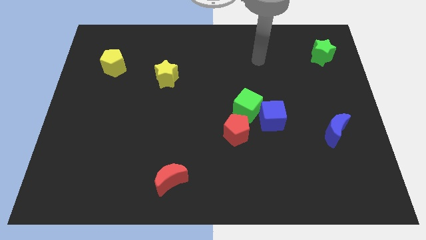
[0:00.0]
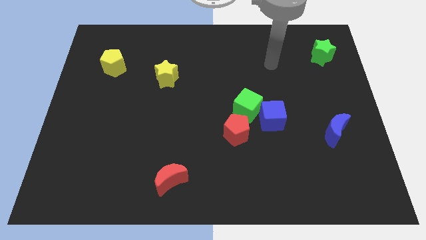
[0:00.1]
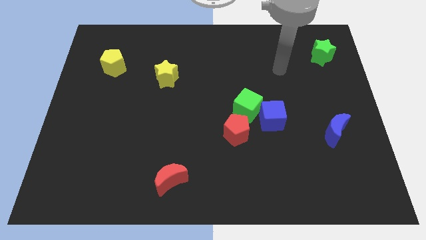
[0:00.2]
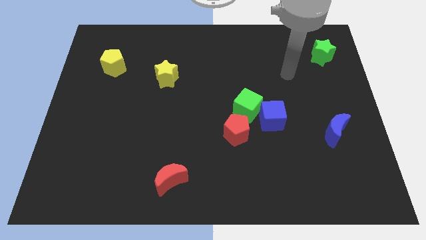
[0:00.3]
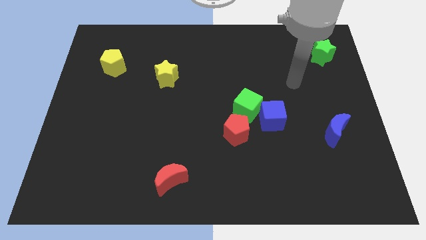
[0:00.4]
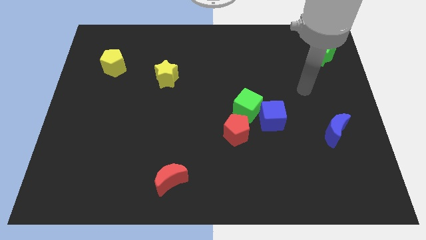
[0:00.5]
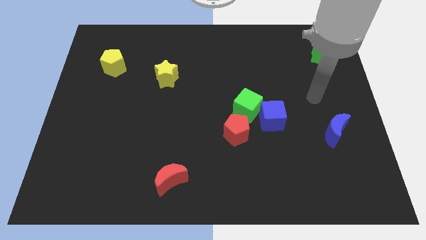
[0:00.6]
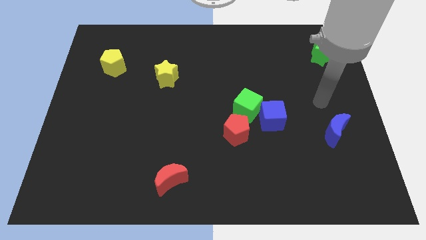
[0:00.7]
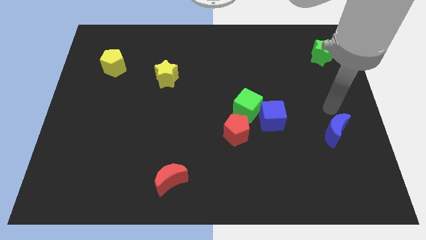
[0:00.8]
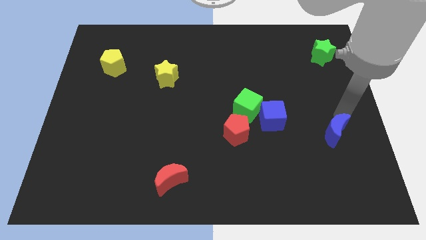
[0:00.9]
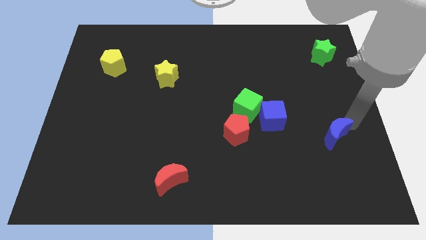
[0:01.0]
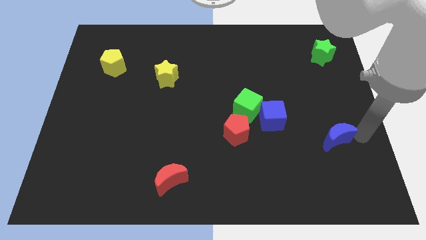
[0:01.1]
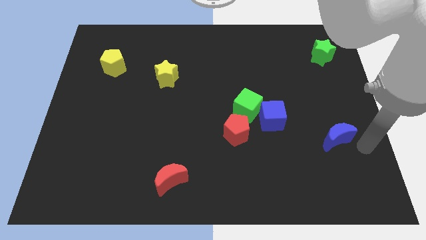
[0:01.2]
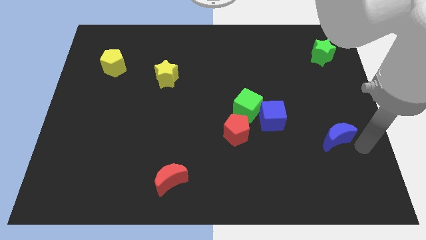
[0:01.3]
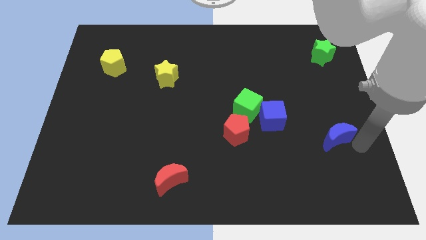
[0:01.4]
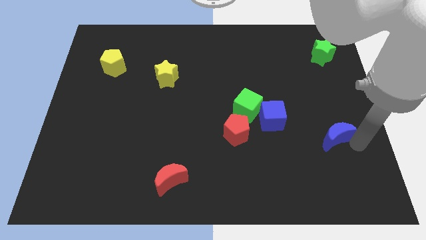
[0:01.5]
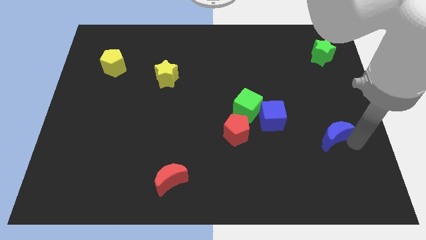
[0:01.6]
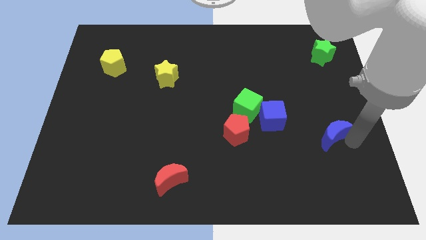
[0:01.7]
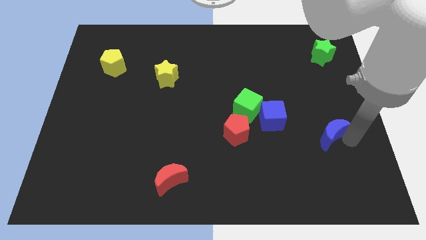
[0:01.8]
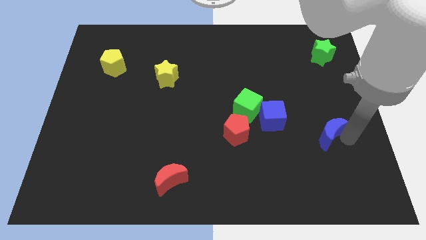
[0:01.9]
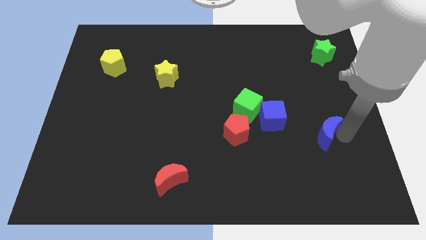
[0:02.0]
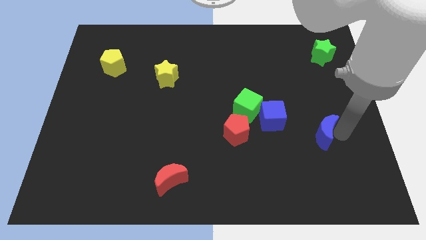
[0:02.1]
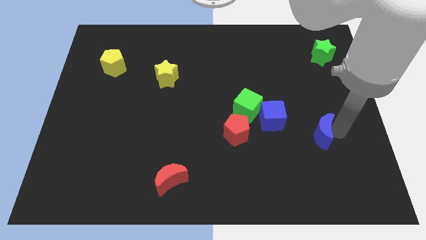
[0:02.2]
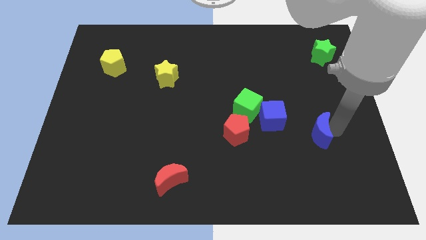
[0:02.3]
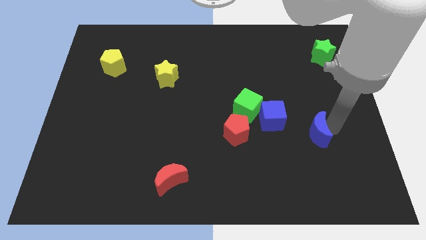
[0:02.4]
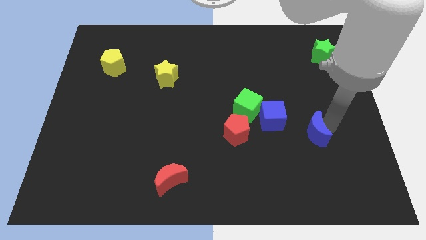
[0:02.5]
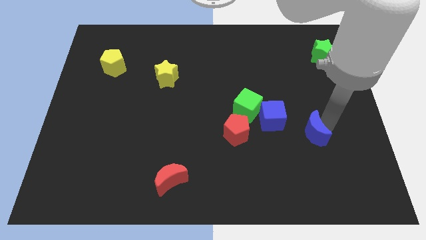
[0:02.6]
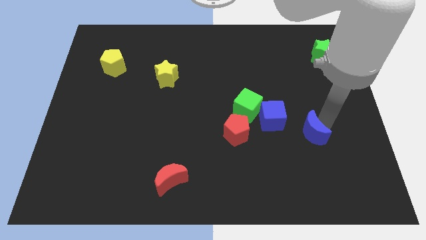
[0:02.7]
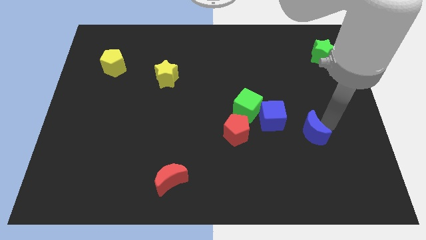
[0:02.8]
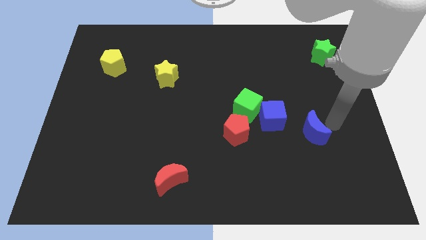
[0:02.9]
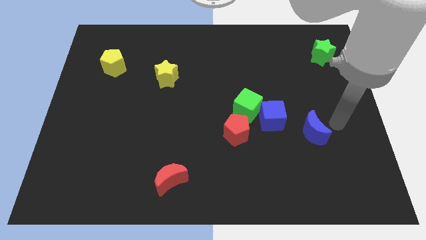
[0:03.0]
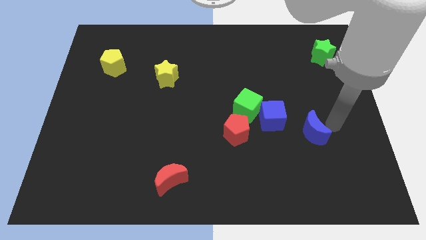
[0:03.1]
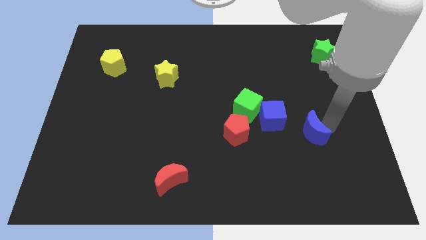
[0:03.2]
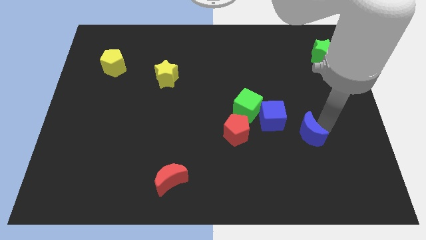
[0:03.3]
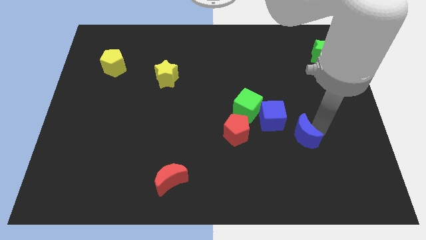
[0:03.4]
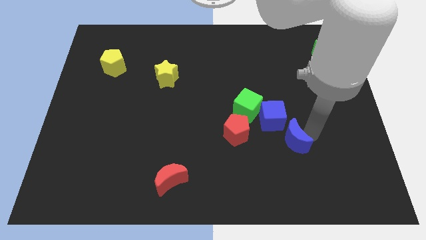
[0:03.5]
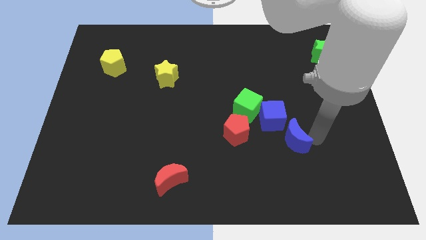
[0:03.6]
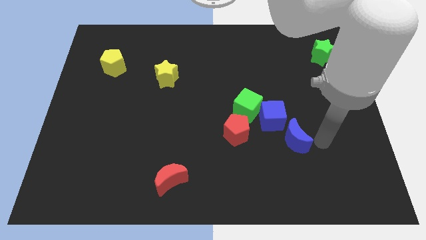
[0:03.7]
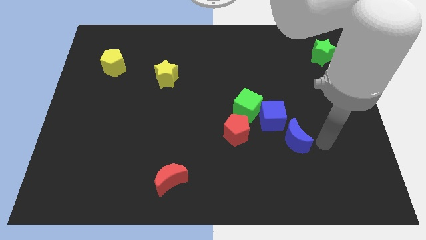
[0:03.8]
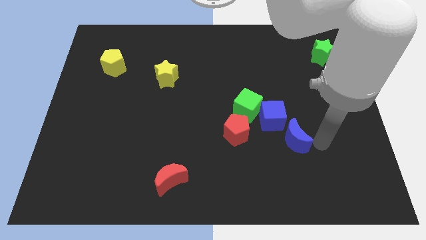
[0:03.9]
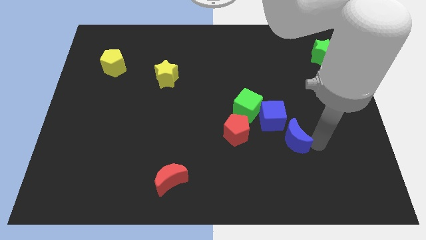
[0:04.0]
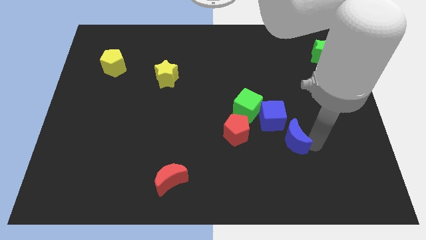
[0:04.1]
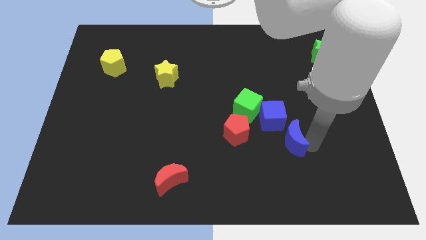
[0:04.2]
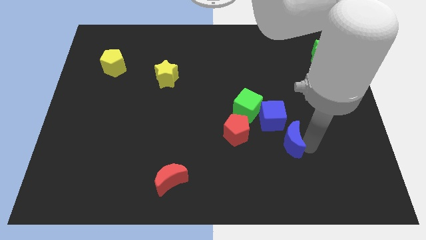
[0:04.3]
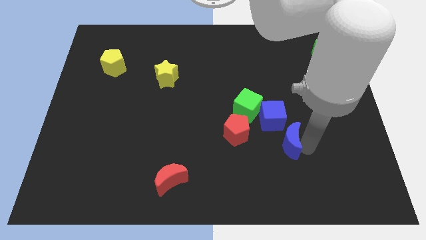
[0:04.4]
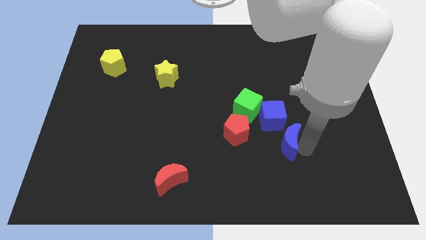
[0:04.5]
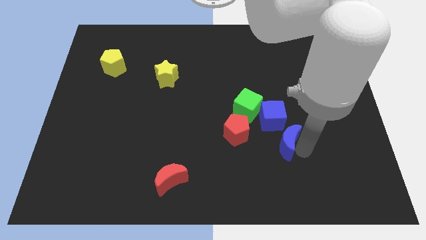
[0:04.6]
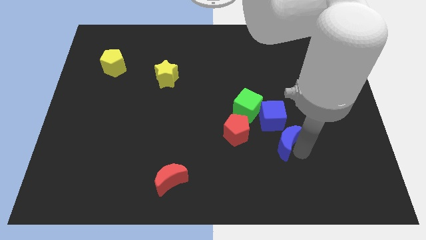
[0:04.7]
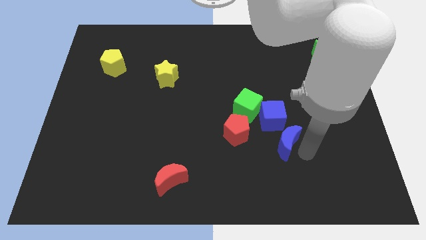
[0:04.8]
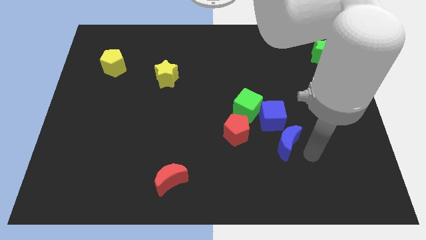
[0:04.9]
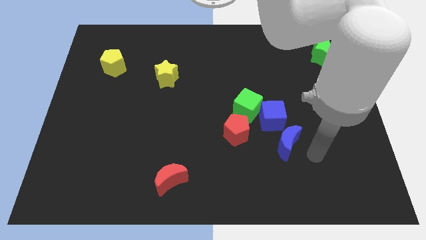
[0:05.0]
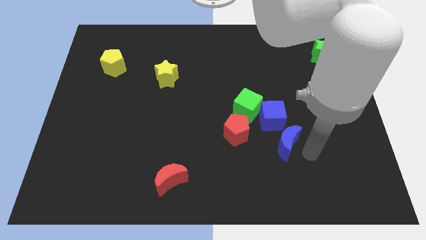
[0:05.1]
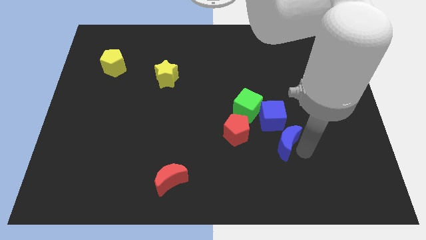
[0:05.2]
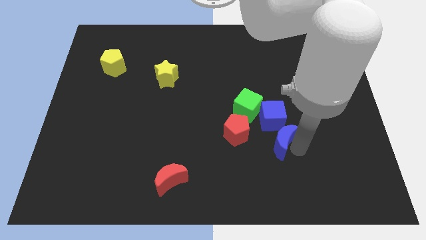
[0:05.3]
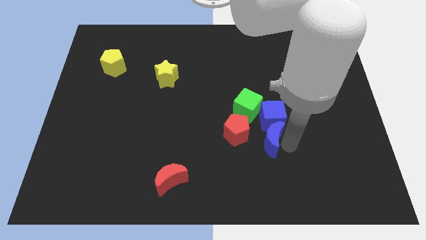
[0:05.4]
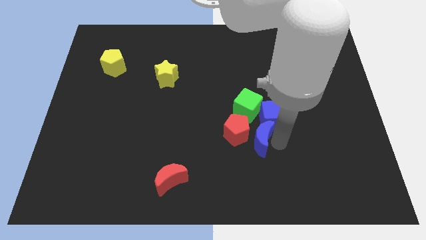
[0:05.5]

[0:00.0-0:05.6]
push the blue moon to the red pentagon

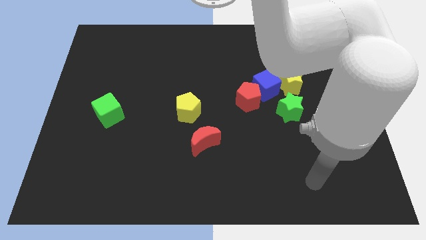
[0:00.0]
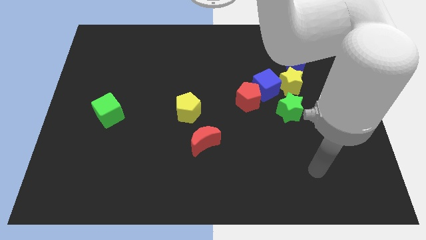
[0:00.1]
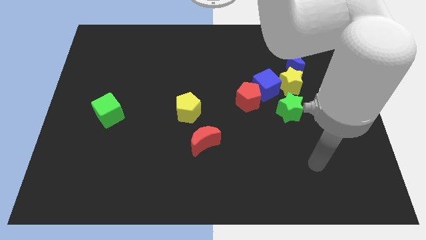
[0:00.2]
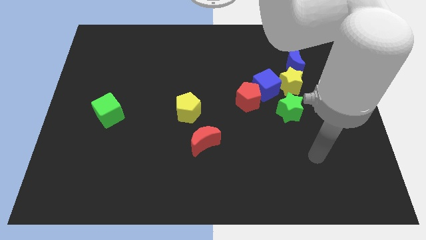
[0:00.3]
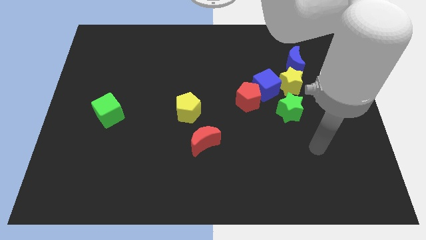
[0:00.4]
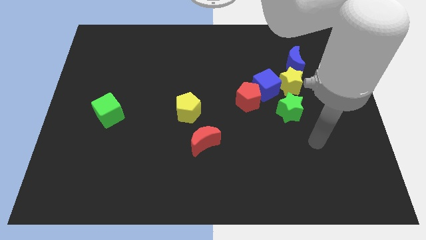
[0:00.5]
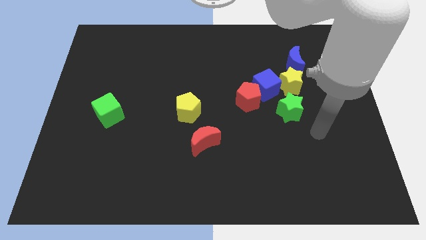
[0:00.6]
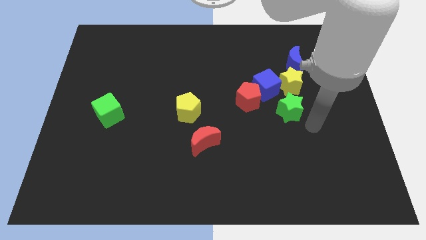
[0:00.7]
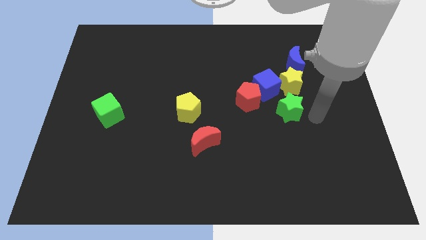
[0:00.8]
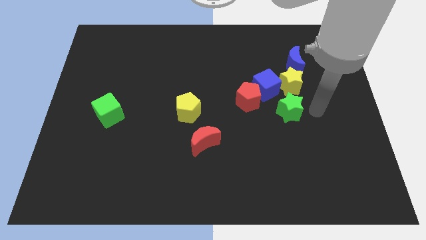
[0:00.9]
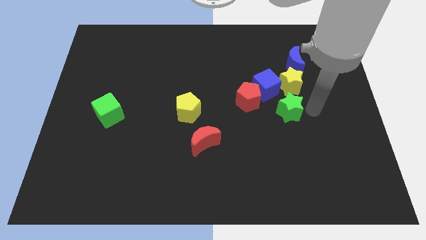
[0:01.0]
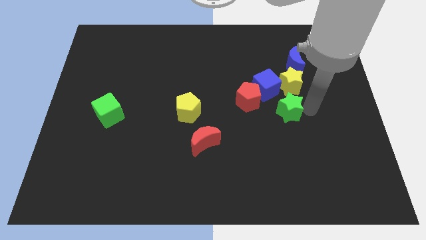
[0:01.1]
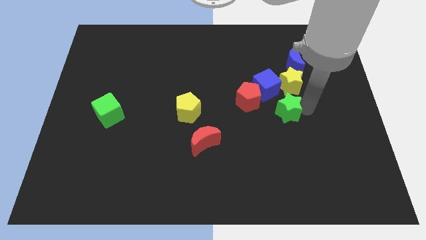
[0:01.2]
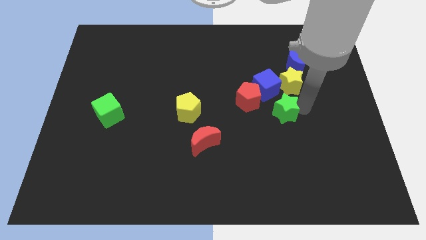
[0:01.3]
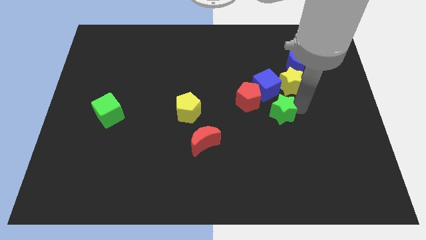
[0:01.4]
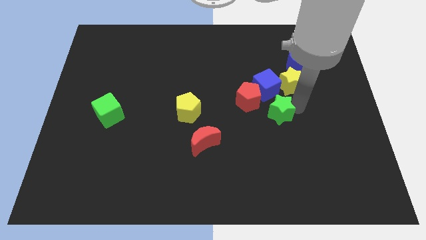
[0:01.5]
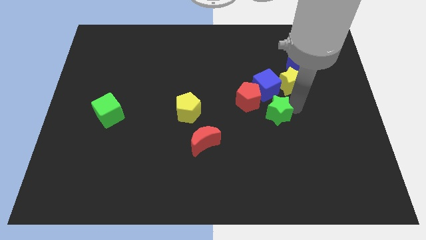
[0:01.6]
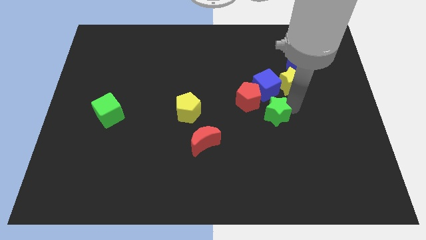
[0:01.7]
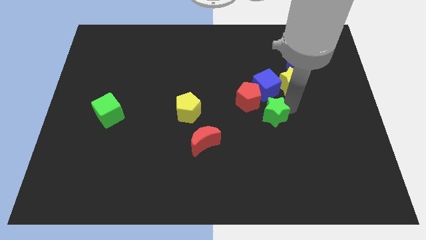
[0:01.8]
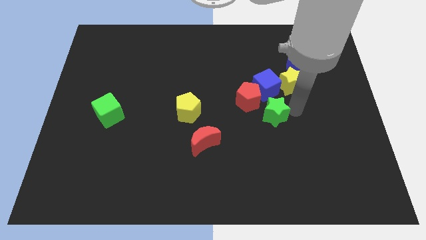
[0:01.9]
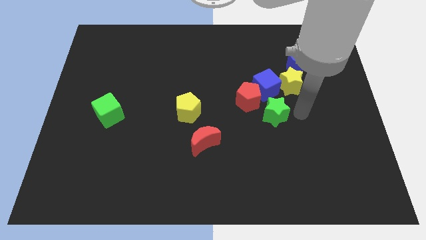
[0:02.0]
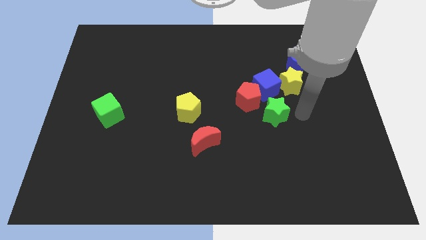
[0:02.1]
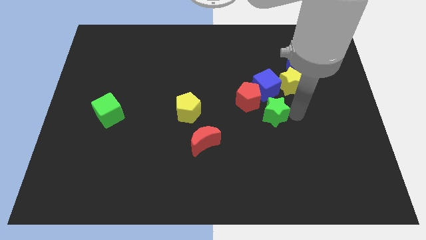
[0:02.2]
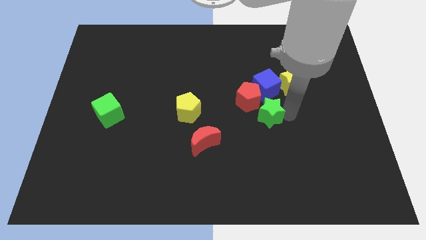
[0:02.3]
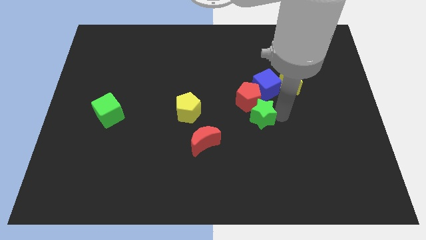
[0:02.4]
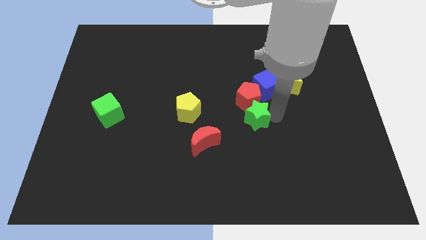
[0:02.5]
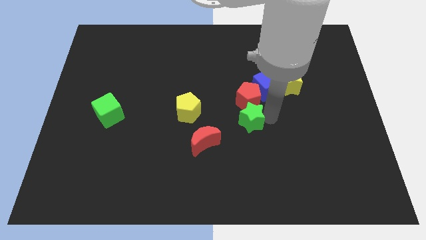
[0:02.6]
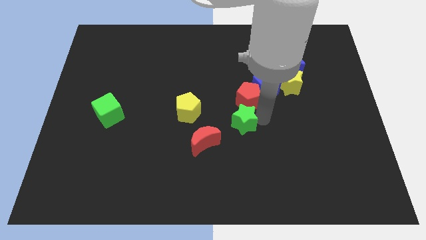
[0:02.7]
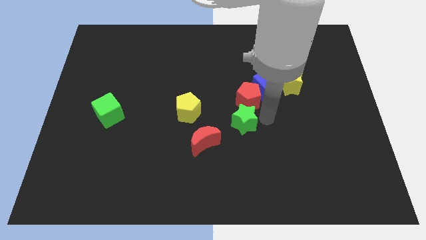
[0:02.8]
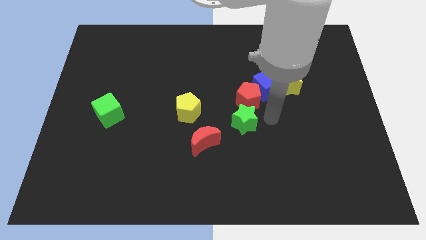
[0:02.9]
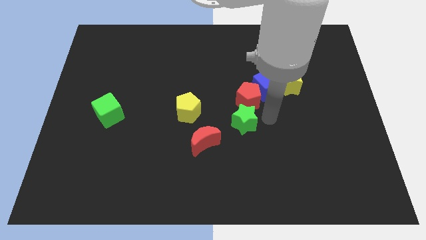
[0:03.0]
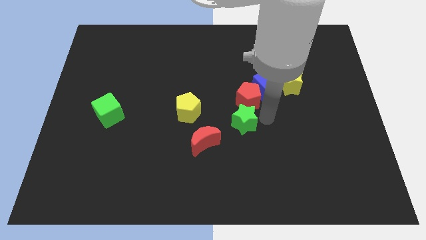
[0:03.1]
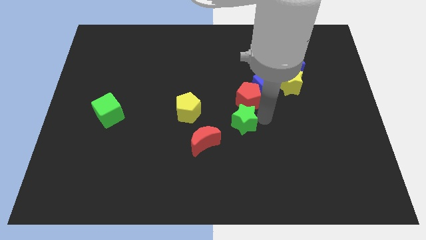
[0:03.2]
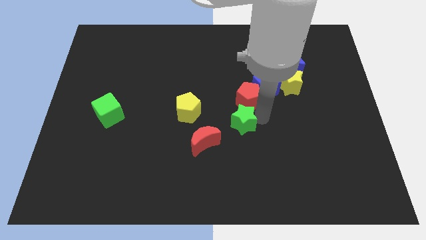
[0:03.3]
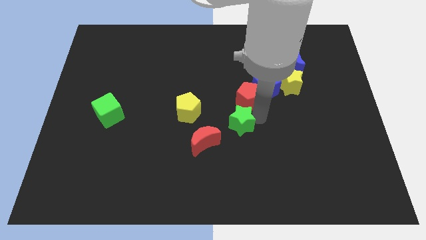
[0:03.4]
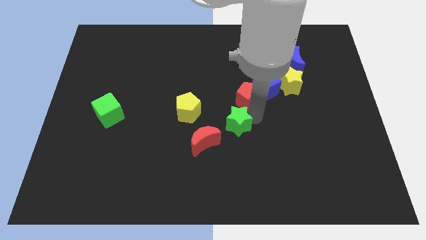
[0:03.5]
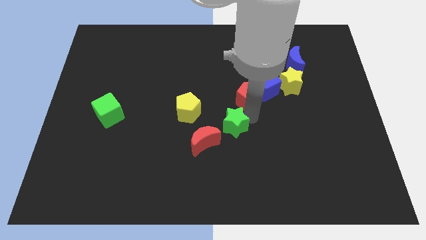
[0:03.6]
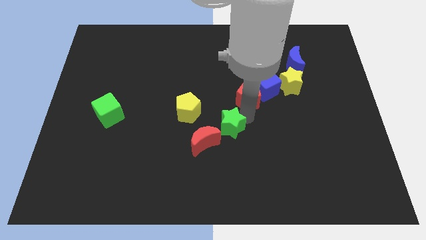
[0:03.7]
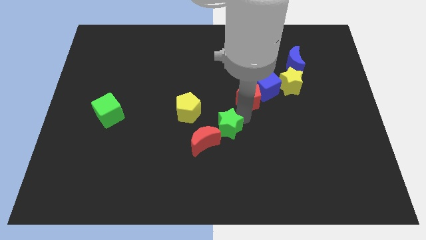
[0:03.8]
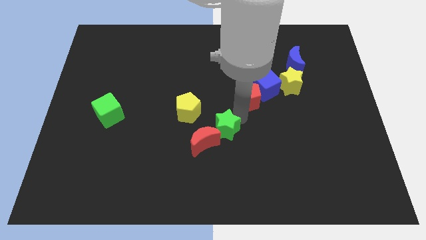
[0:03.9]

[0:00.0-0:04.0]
move the green star towards the red moon
